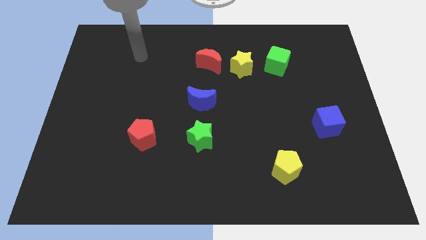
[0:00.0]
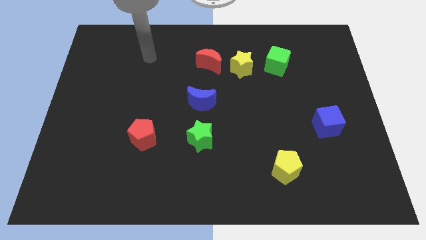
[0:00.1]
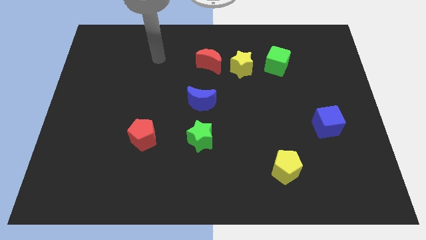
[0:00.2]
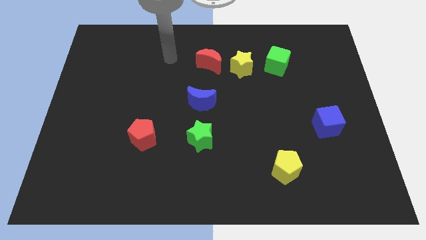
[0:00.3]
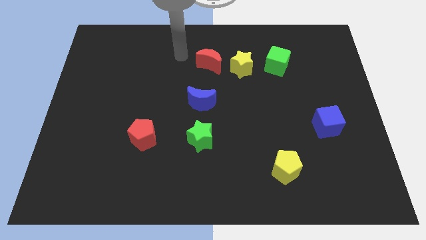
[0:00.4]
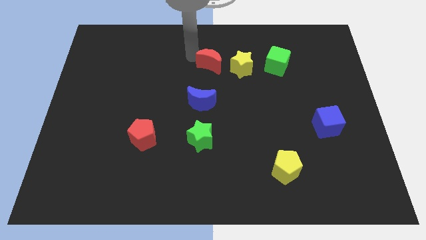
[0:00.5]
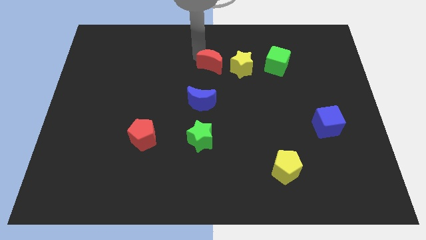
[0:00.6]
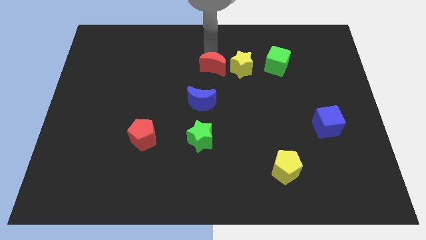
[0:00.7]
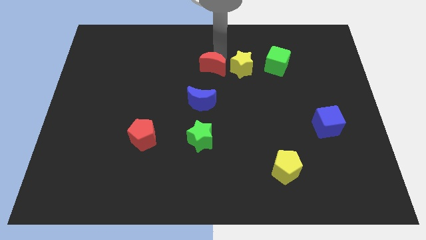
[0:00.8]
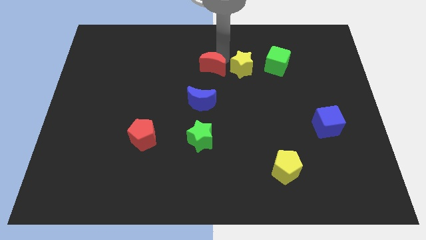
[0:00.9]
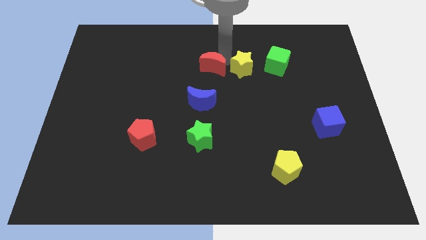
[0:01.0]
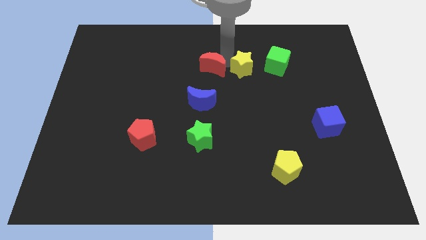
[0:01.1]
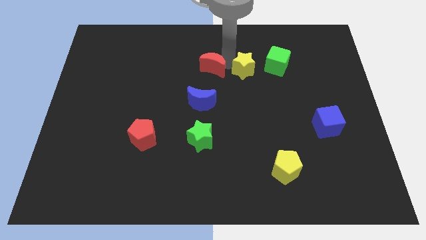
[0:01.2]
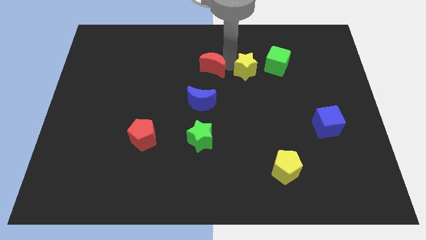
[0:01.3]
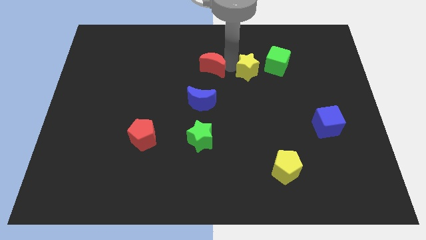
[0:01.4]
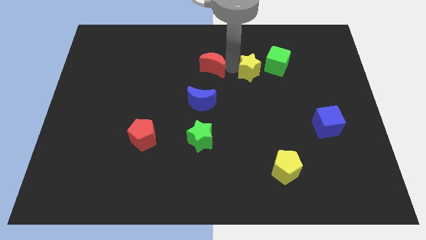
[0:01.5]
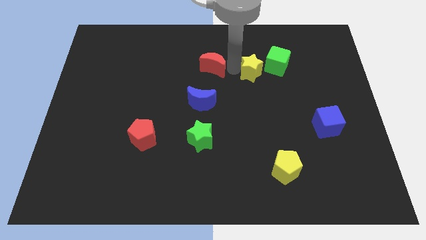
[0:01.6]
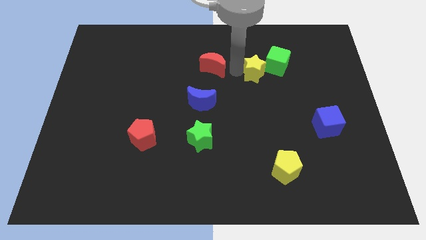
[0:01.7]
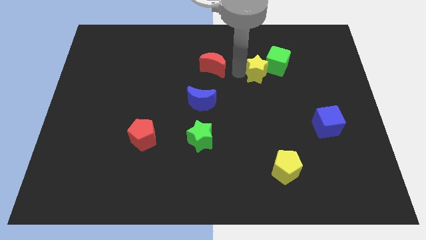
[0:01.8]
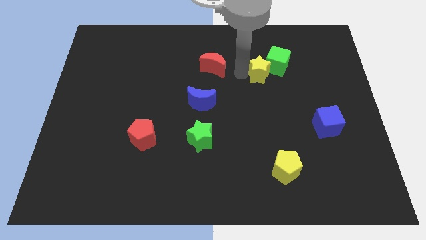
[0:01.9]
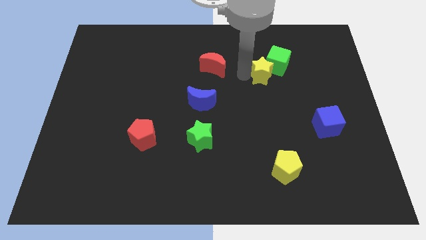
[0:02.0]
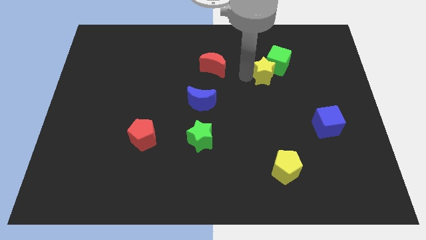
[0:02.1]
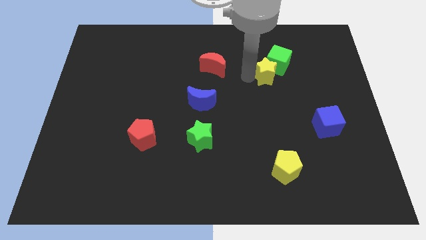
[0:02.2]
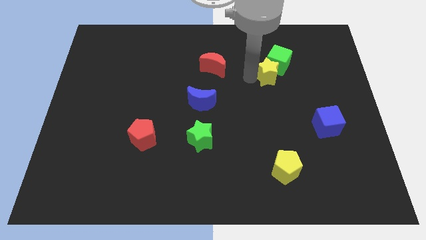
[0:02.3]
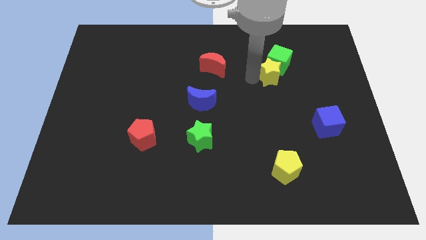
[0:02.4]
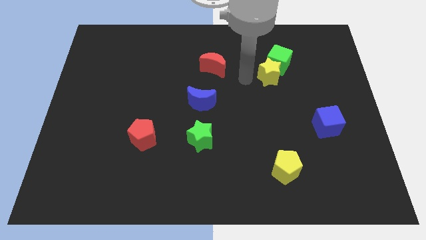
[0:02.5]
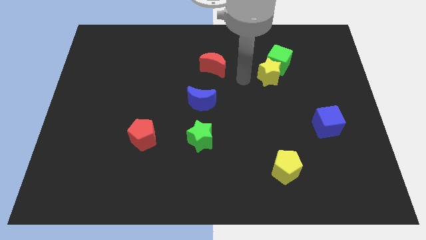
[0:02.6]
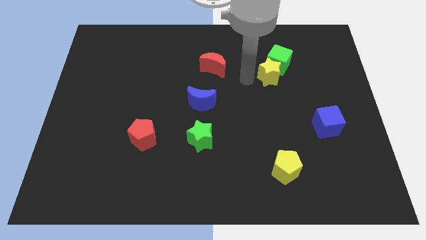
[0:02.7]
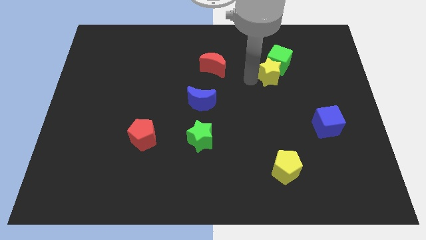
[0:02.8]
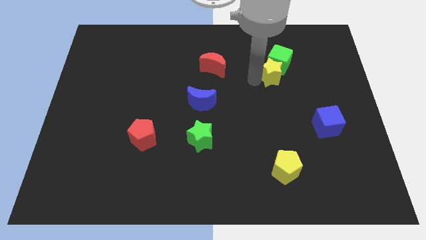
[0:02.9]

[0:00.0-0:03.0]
push the yellow star a little bit to the right

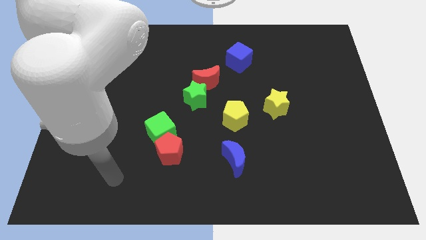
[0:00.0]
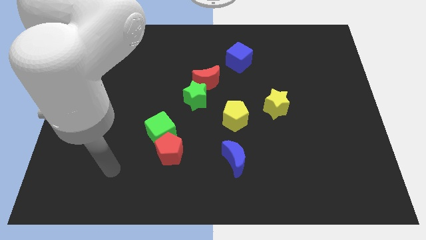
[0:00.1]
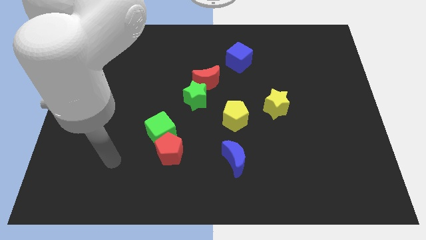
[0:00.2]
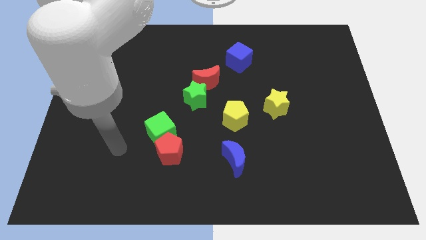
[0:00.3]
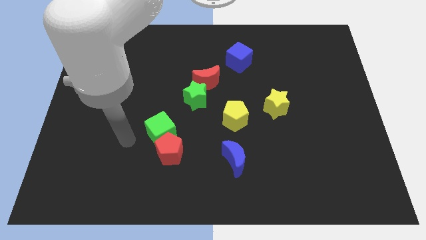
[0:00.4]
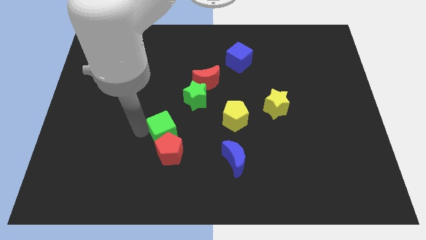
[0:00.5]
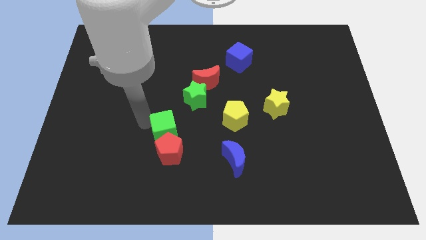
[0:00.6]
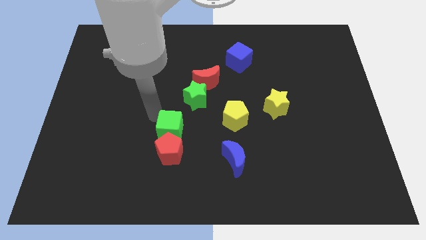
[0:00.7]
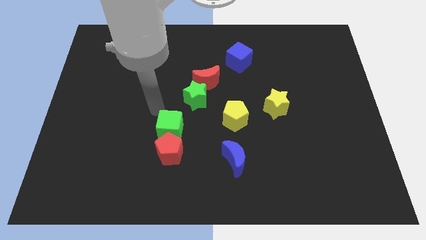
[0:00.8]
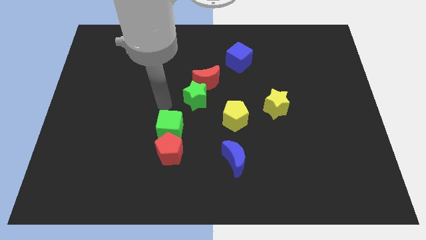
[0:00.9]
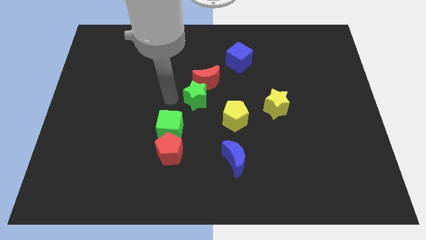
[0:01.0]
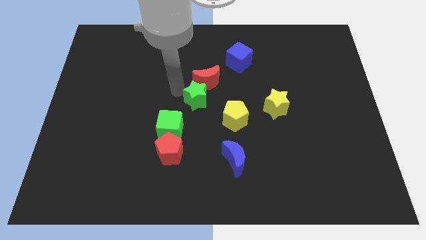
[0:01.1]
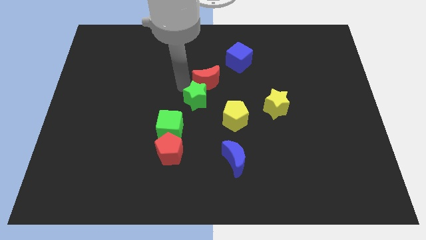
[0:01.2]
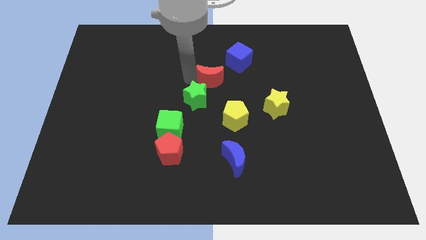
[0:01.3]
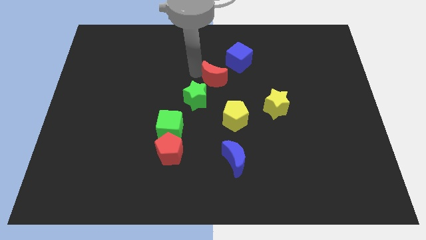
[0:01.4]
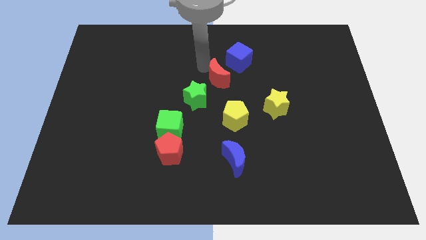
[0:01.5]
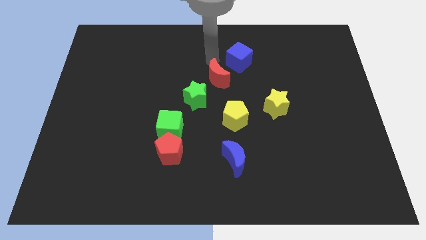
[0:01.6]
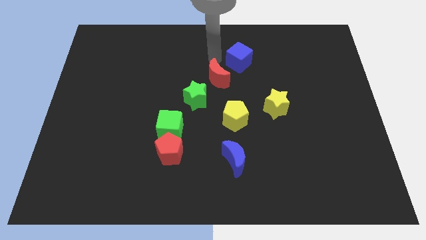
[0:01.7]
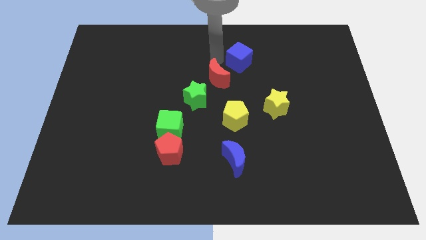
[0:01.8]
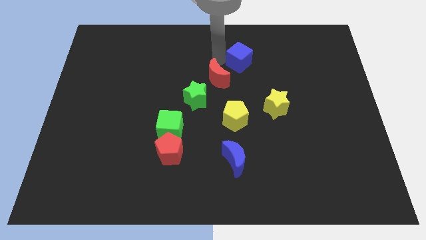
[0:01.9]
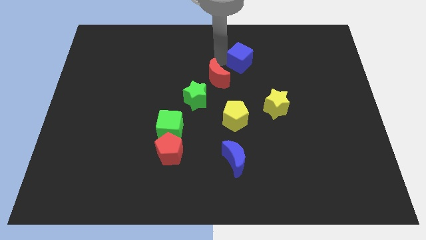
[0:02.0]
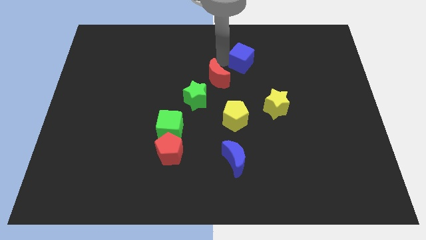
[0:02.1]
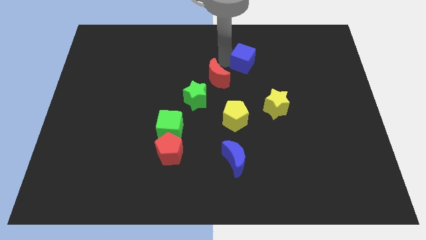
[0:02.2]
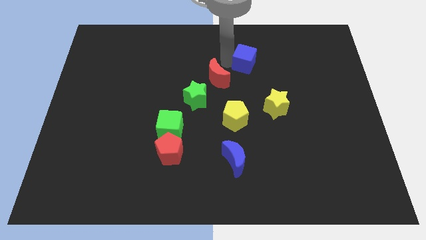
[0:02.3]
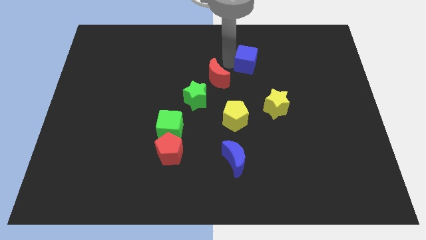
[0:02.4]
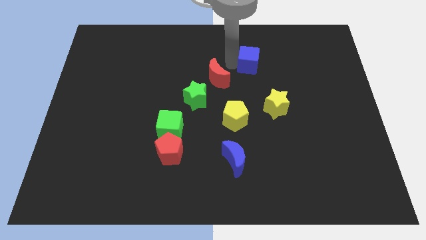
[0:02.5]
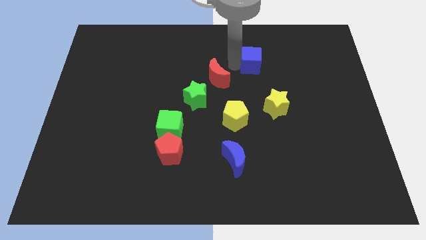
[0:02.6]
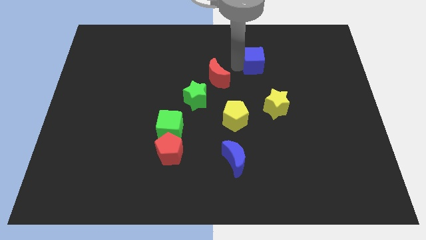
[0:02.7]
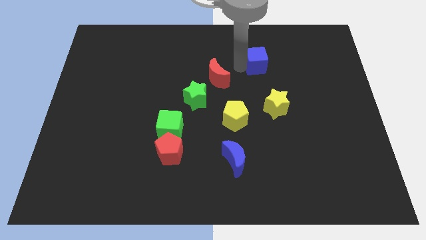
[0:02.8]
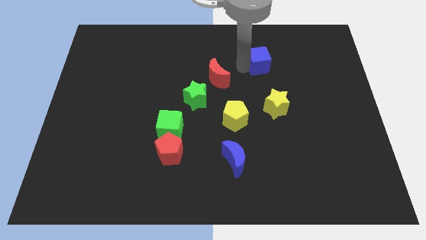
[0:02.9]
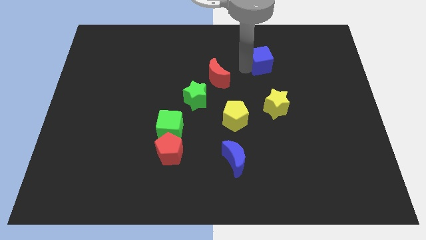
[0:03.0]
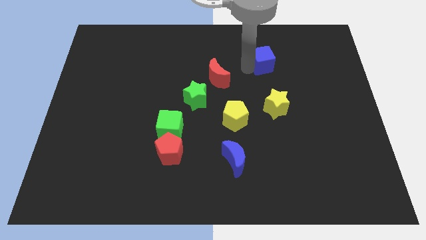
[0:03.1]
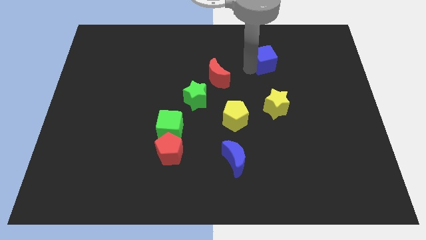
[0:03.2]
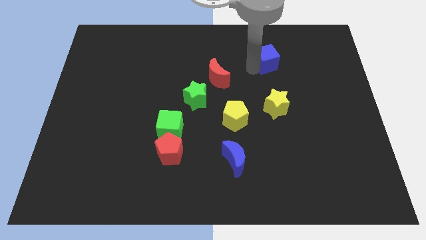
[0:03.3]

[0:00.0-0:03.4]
move the blue cube a little bit right

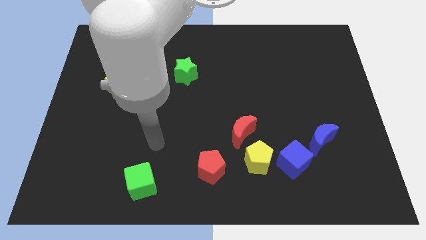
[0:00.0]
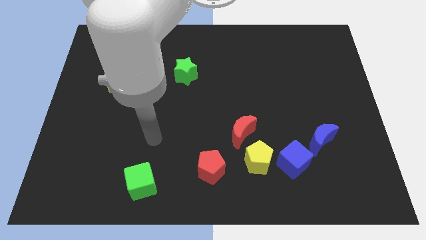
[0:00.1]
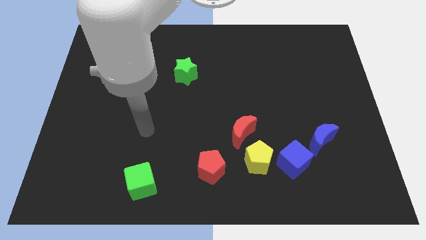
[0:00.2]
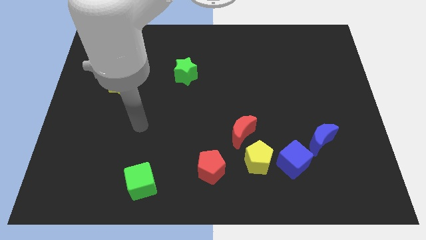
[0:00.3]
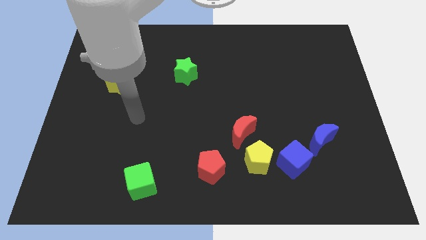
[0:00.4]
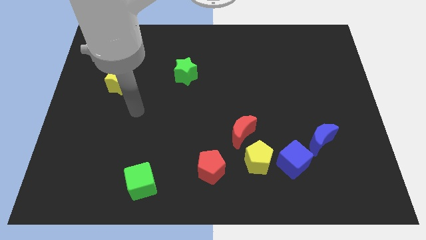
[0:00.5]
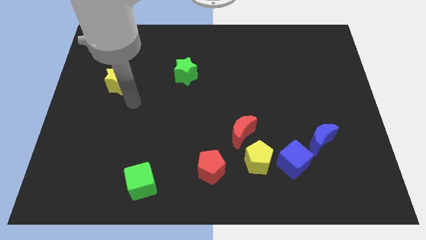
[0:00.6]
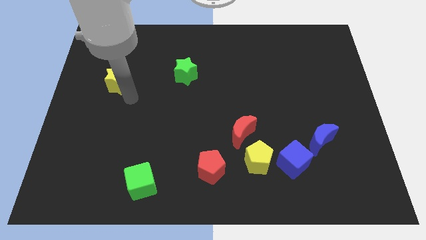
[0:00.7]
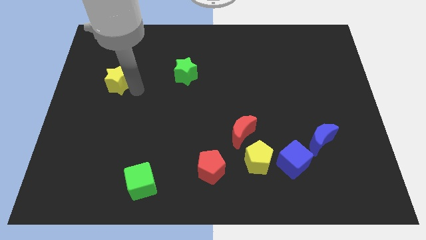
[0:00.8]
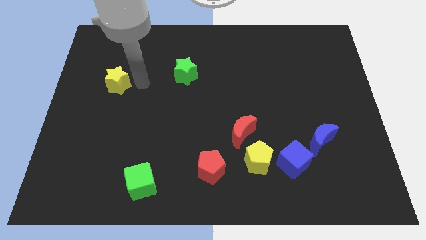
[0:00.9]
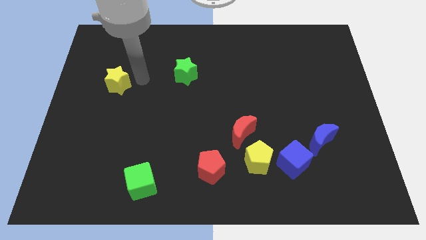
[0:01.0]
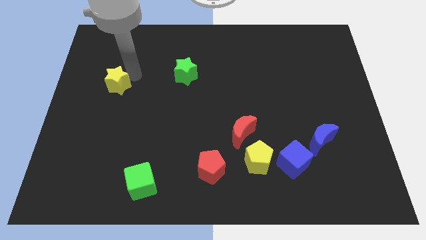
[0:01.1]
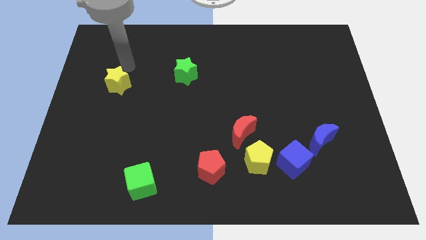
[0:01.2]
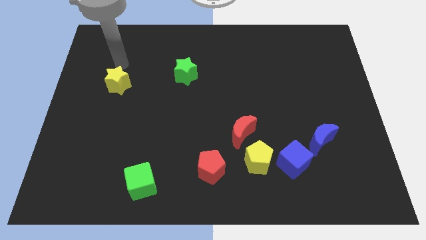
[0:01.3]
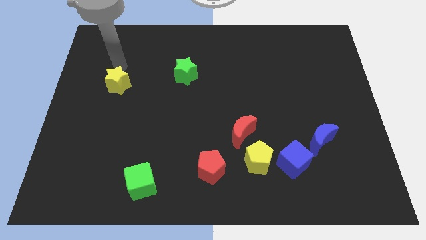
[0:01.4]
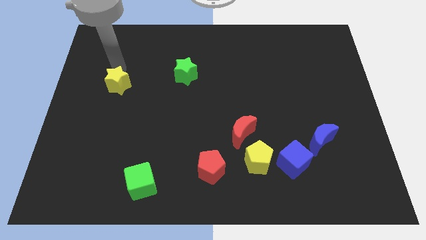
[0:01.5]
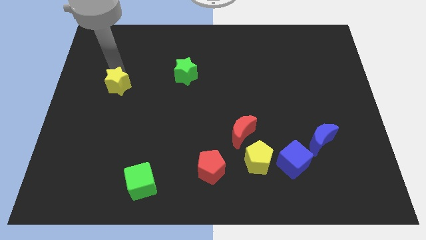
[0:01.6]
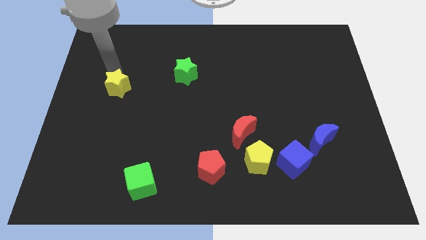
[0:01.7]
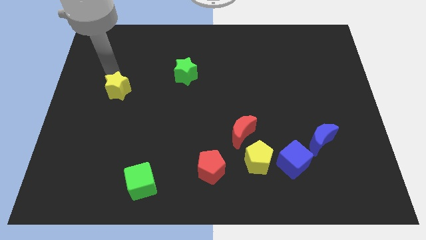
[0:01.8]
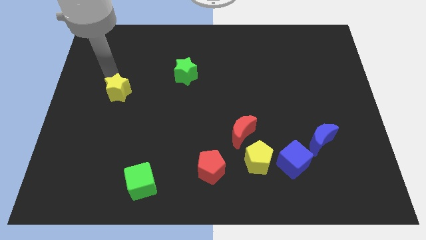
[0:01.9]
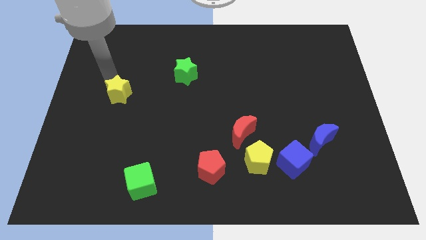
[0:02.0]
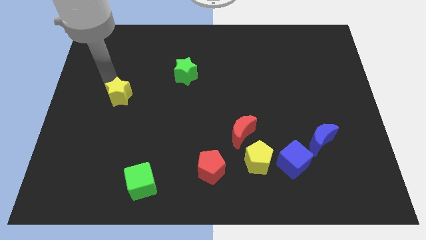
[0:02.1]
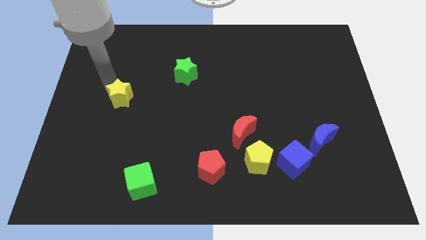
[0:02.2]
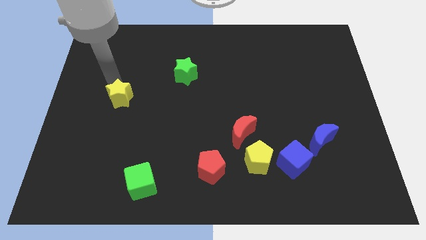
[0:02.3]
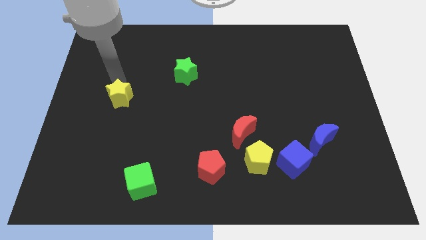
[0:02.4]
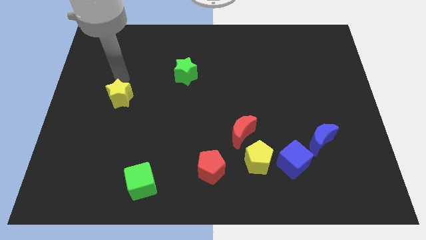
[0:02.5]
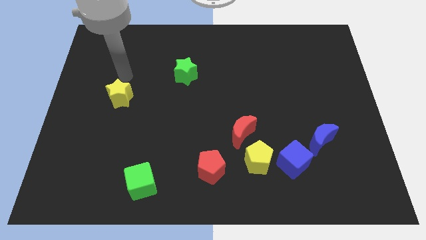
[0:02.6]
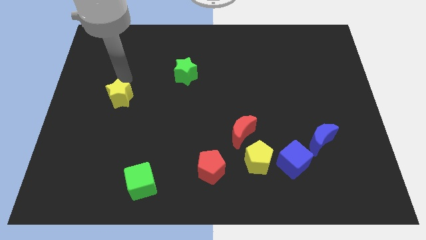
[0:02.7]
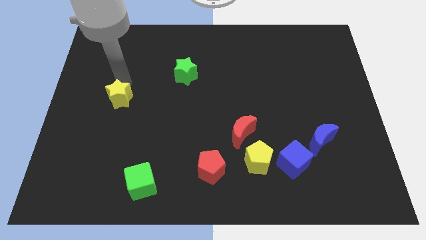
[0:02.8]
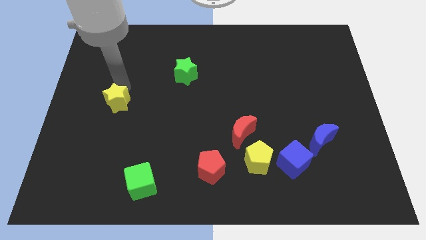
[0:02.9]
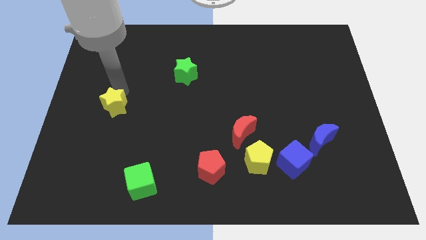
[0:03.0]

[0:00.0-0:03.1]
slide the yellow star down a bit
